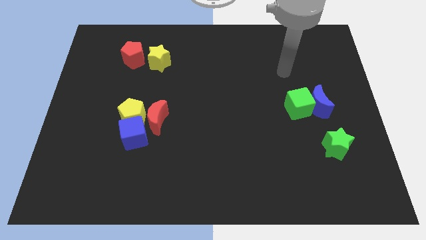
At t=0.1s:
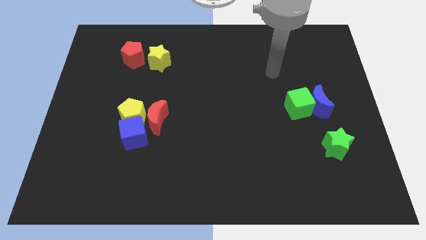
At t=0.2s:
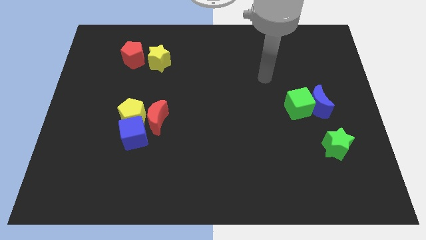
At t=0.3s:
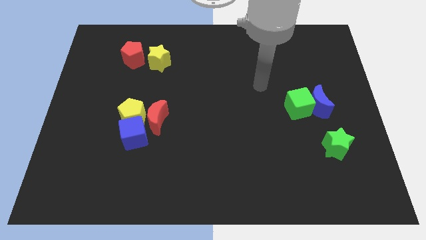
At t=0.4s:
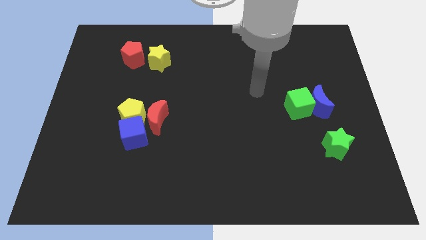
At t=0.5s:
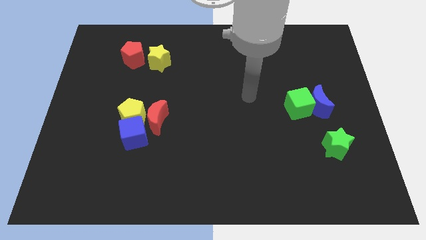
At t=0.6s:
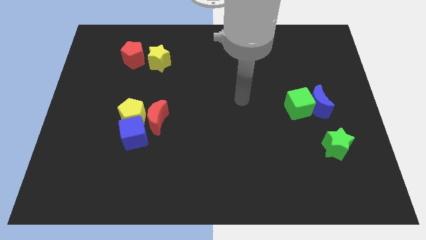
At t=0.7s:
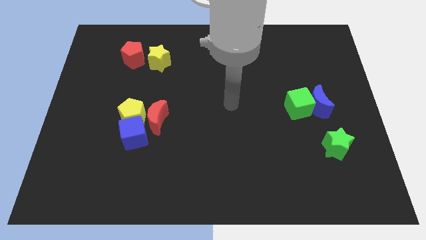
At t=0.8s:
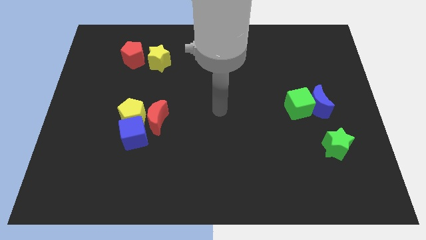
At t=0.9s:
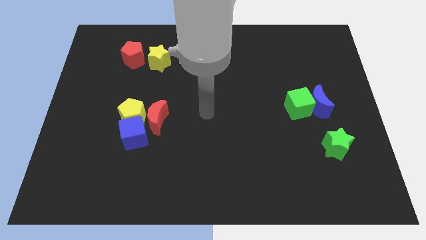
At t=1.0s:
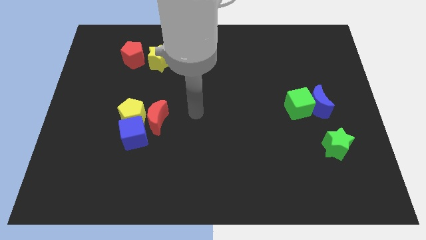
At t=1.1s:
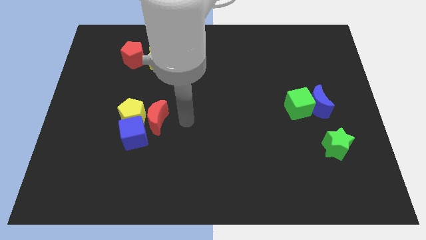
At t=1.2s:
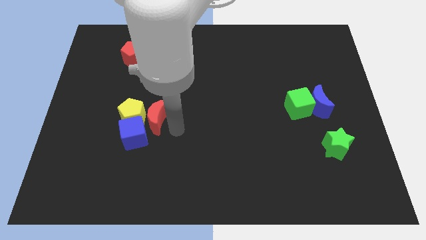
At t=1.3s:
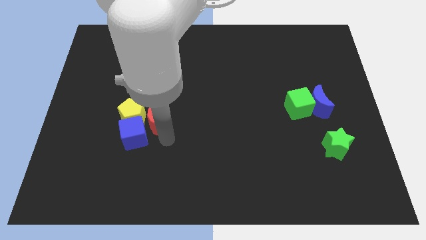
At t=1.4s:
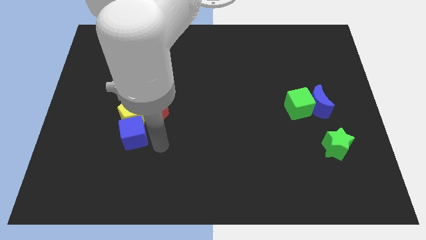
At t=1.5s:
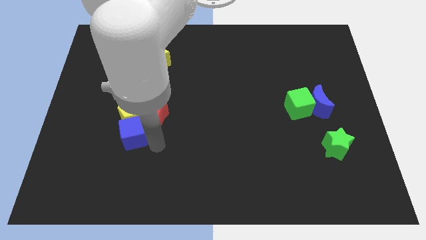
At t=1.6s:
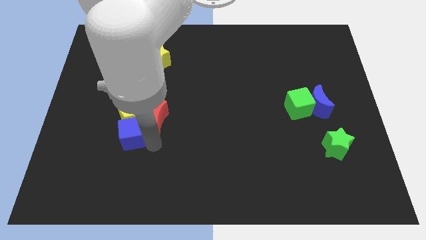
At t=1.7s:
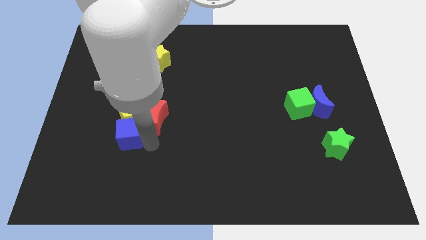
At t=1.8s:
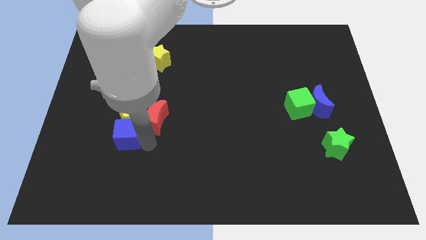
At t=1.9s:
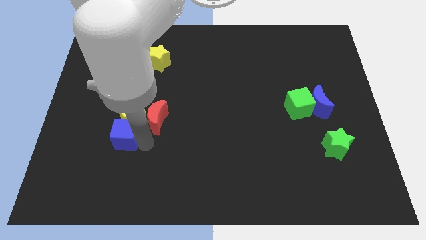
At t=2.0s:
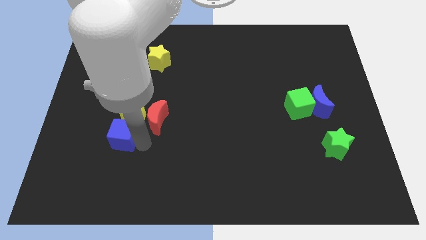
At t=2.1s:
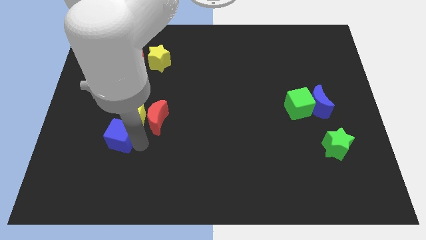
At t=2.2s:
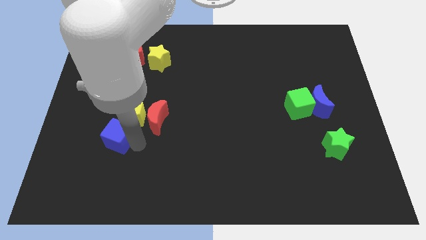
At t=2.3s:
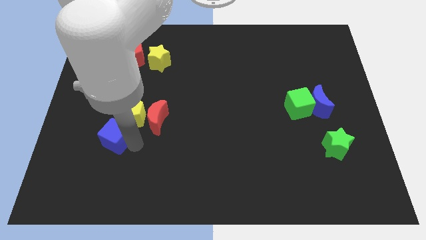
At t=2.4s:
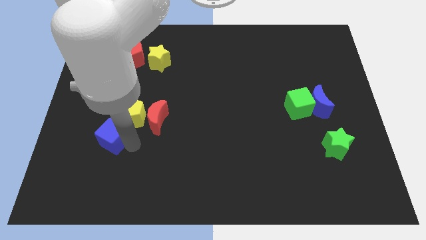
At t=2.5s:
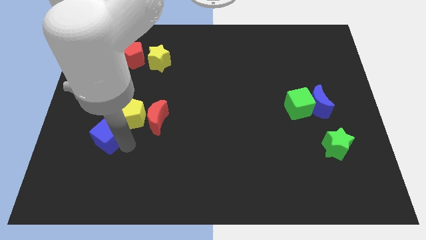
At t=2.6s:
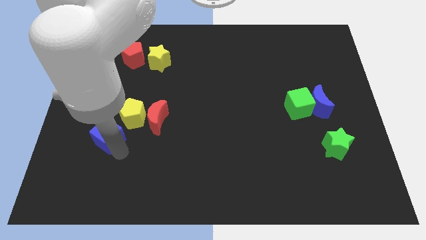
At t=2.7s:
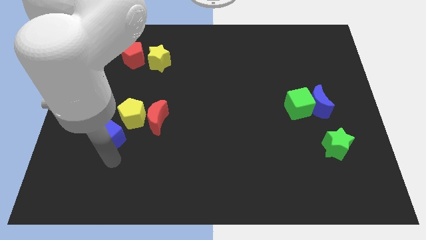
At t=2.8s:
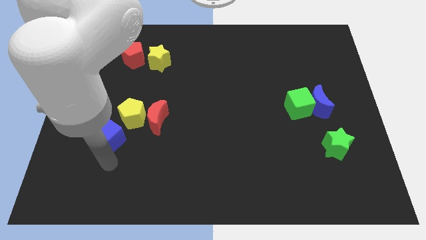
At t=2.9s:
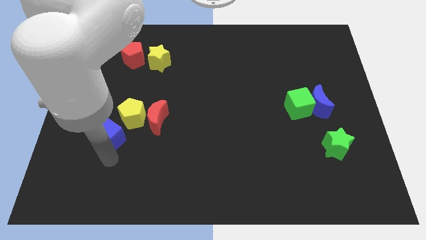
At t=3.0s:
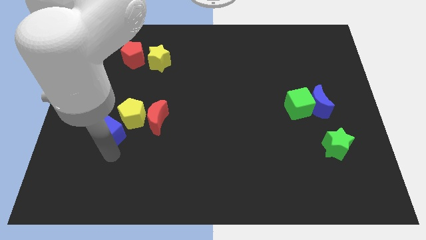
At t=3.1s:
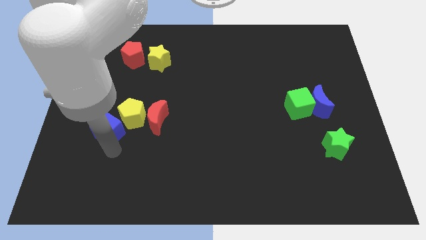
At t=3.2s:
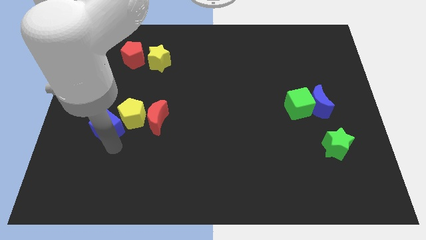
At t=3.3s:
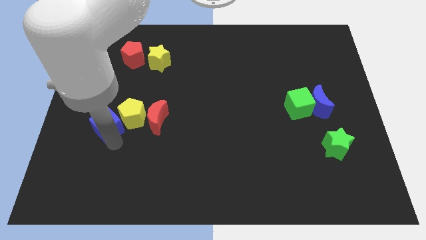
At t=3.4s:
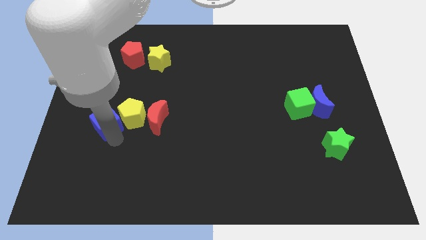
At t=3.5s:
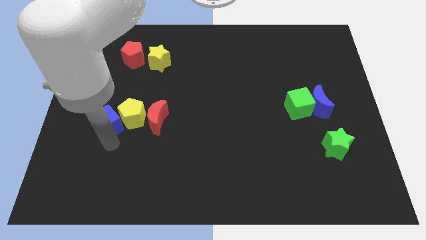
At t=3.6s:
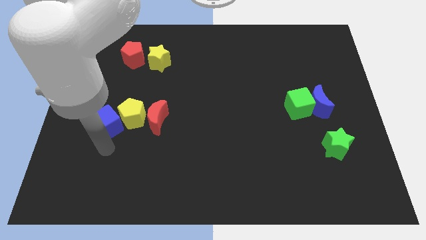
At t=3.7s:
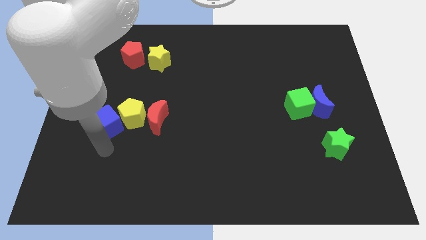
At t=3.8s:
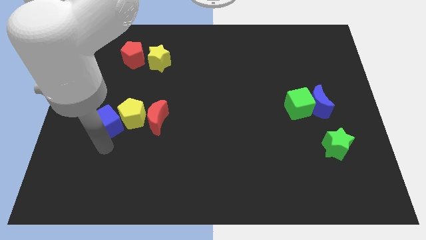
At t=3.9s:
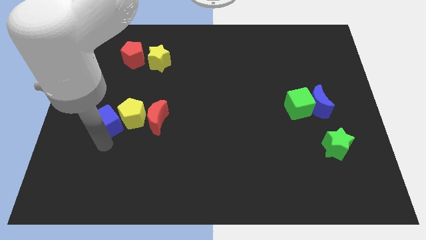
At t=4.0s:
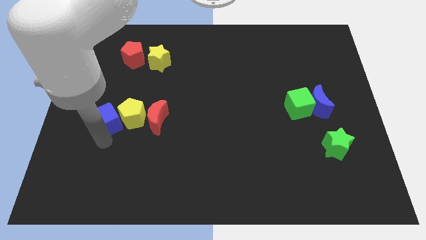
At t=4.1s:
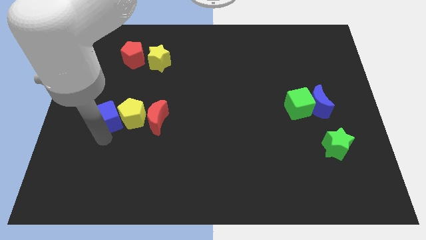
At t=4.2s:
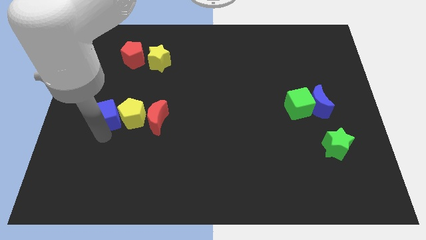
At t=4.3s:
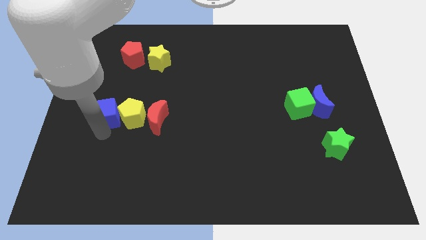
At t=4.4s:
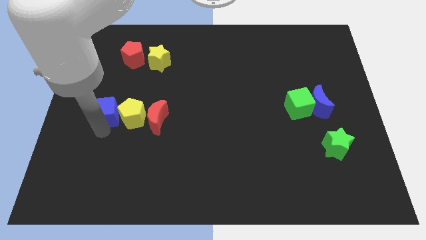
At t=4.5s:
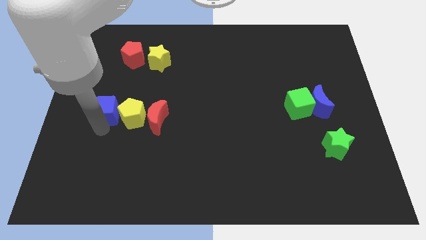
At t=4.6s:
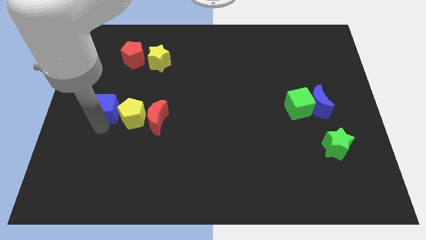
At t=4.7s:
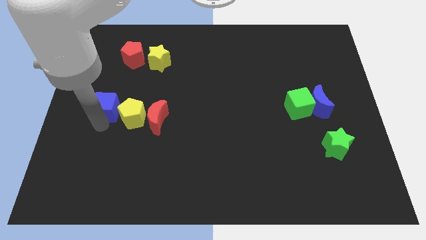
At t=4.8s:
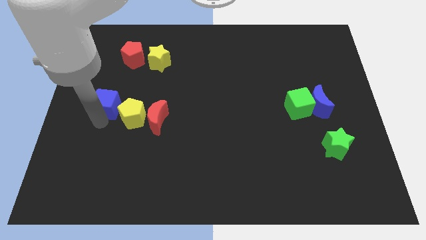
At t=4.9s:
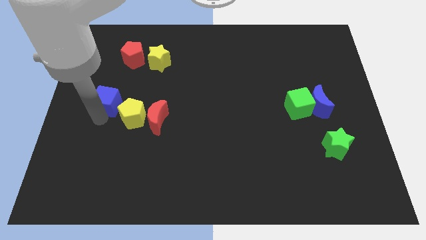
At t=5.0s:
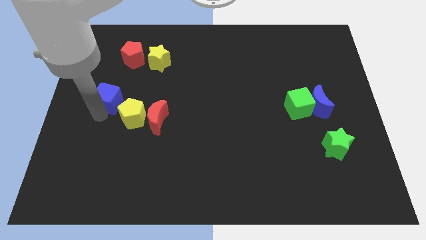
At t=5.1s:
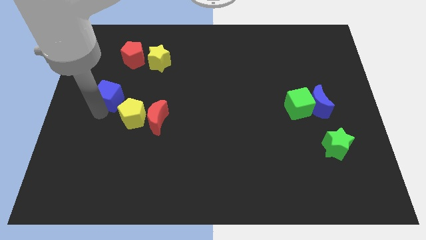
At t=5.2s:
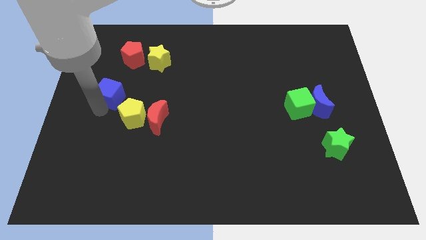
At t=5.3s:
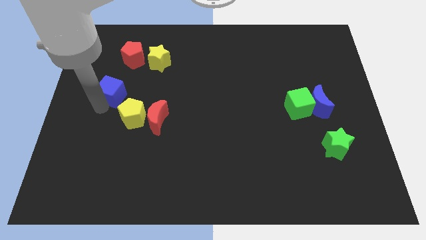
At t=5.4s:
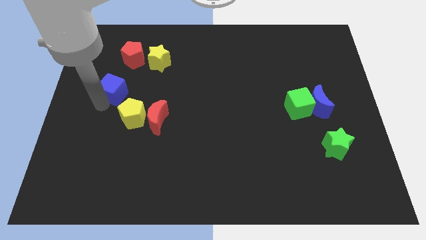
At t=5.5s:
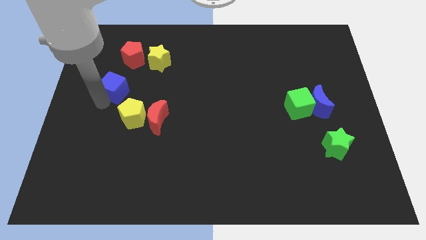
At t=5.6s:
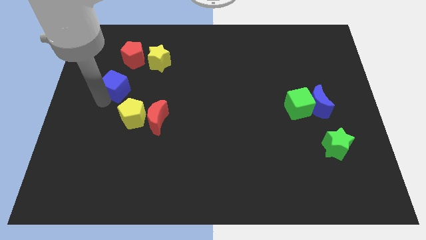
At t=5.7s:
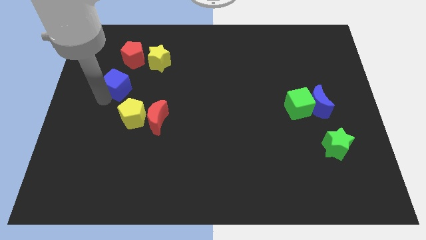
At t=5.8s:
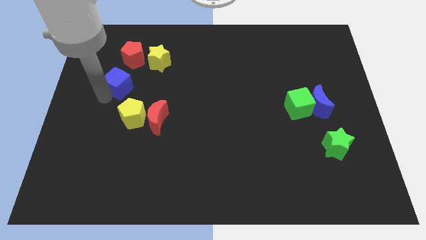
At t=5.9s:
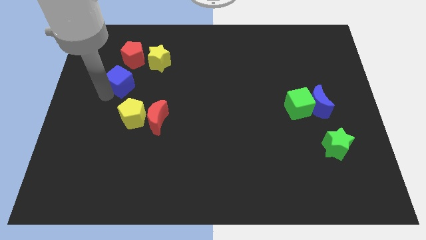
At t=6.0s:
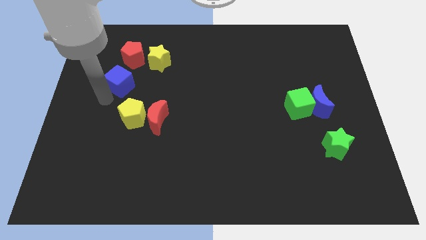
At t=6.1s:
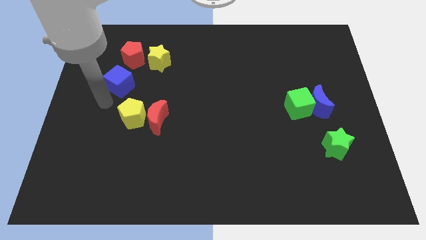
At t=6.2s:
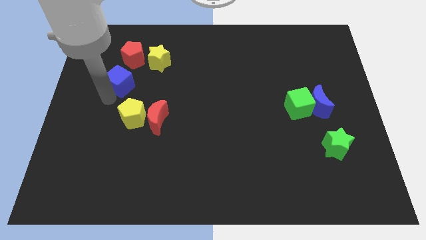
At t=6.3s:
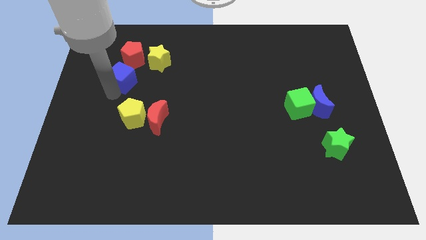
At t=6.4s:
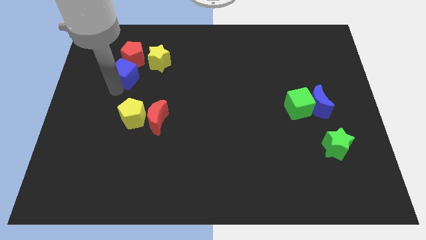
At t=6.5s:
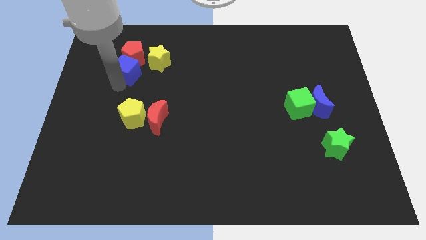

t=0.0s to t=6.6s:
put the blue cube close to the red pentagon

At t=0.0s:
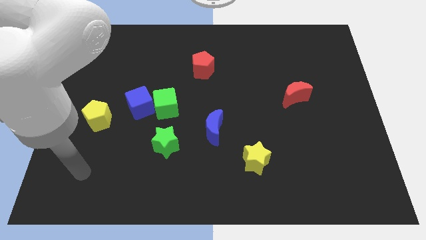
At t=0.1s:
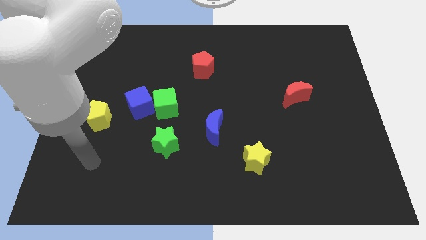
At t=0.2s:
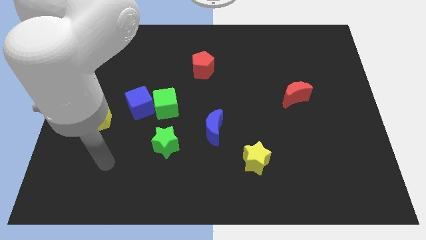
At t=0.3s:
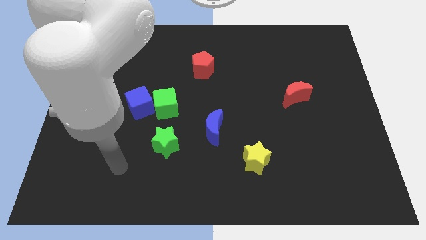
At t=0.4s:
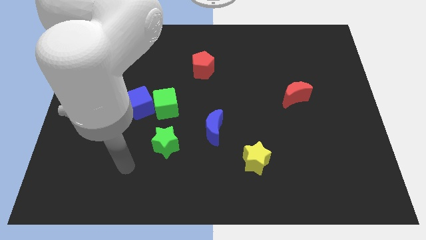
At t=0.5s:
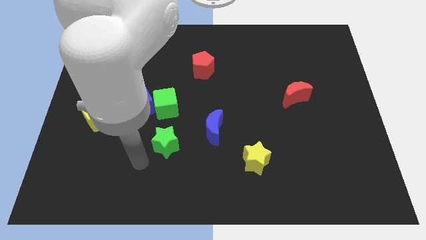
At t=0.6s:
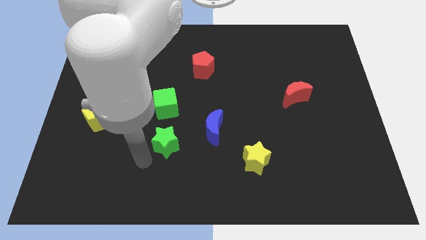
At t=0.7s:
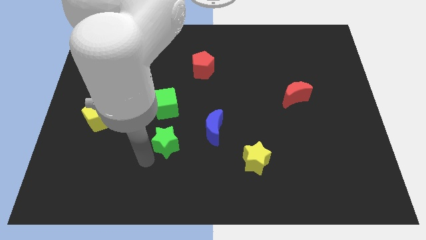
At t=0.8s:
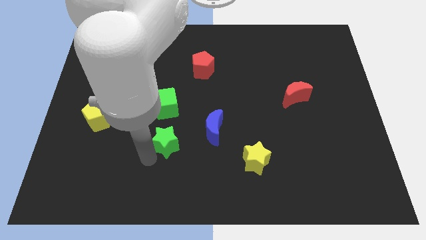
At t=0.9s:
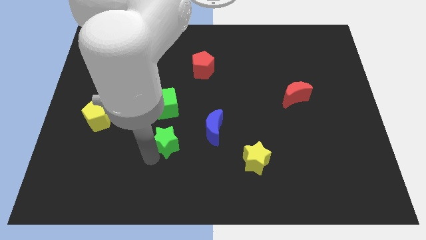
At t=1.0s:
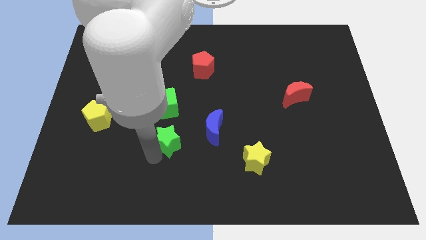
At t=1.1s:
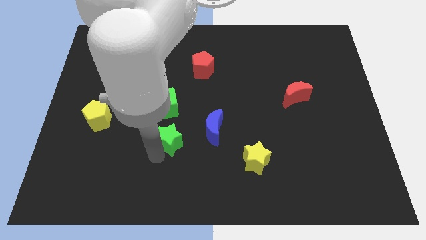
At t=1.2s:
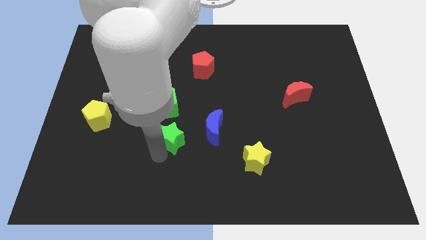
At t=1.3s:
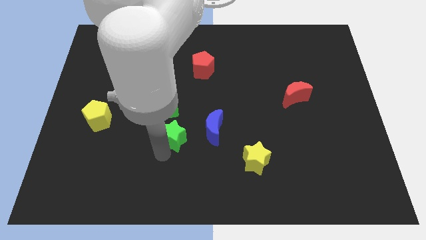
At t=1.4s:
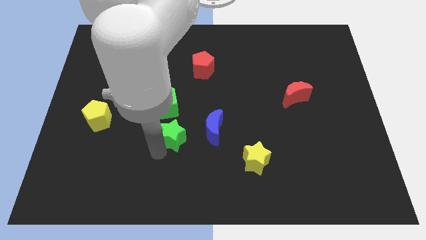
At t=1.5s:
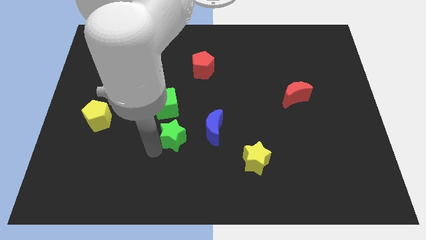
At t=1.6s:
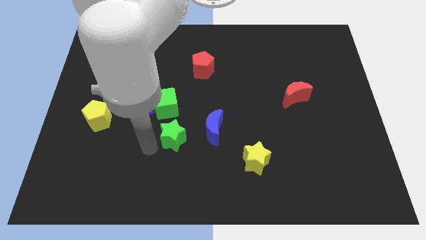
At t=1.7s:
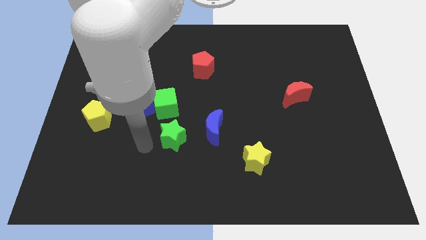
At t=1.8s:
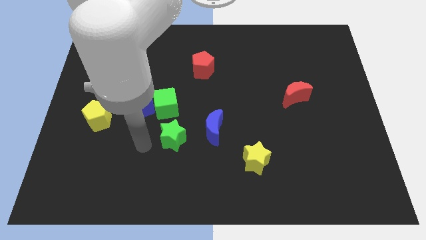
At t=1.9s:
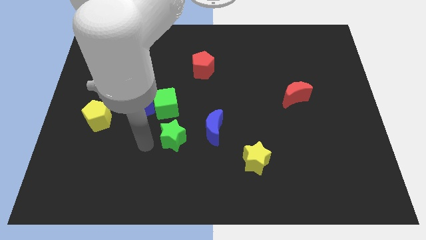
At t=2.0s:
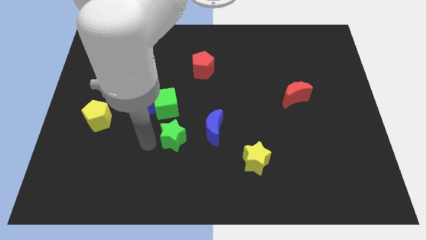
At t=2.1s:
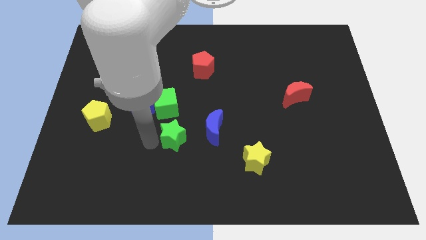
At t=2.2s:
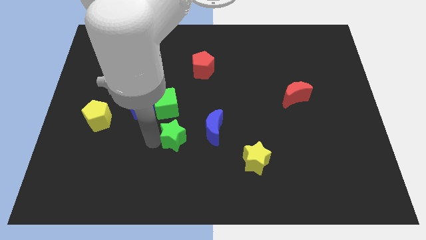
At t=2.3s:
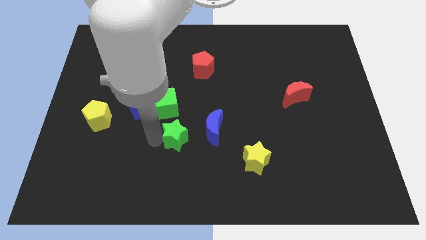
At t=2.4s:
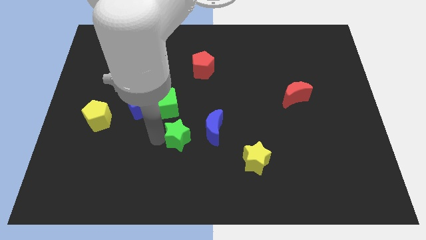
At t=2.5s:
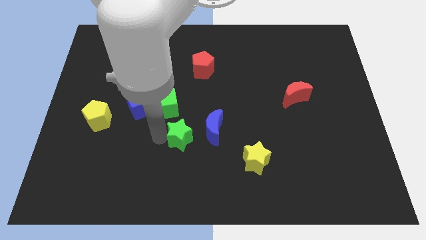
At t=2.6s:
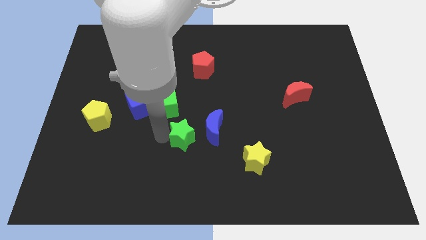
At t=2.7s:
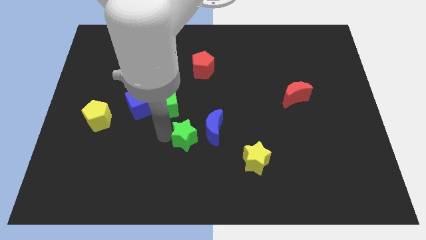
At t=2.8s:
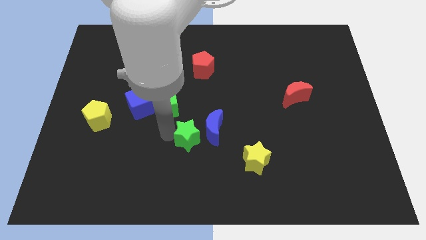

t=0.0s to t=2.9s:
slide the green star to the blue moon
